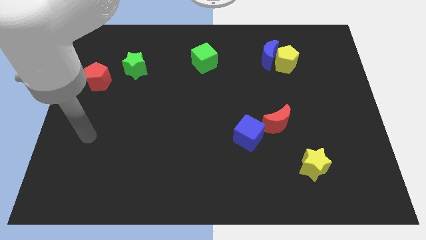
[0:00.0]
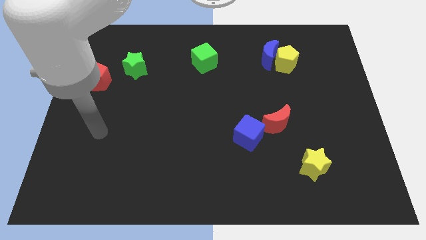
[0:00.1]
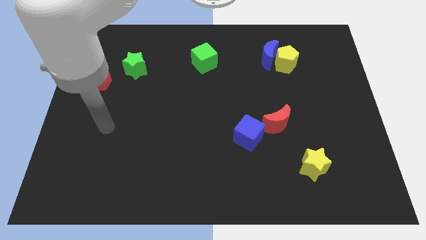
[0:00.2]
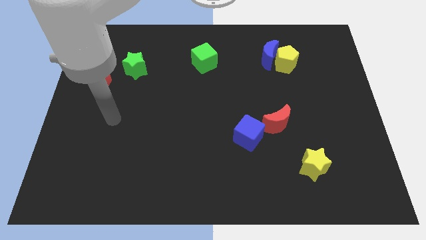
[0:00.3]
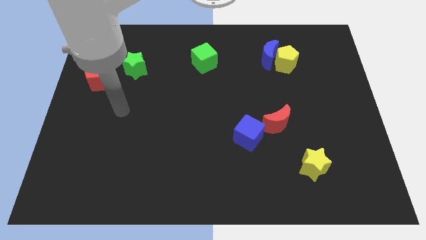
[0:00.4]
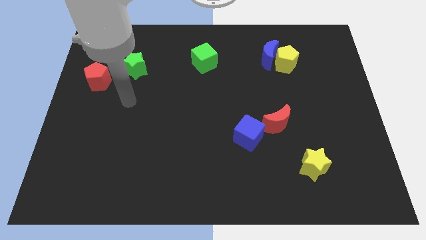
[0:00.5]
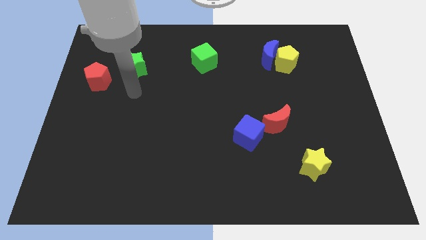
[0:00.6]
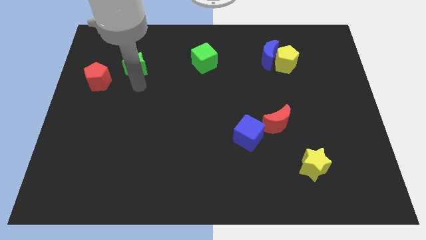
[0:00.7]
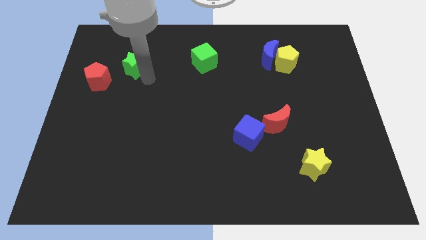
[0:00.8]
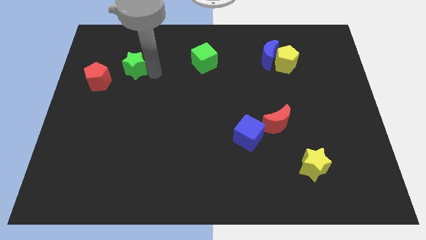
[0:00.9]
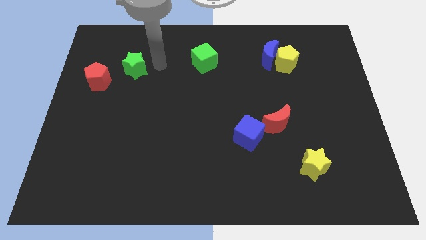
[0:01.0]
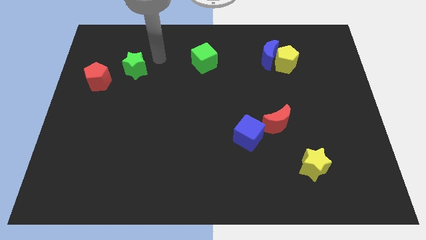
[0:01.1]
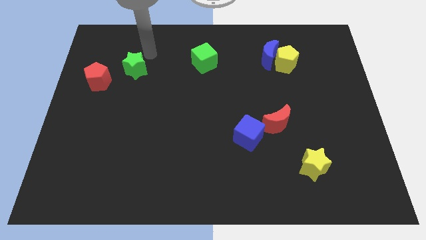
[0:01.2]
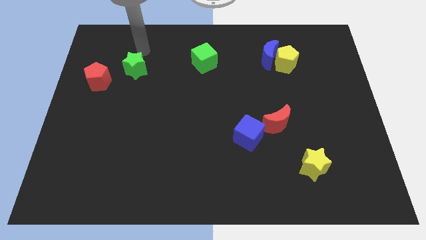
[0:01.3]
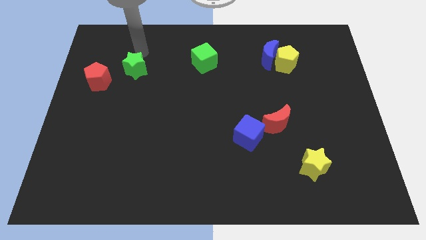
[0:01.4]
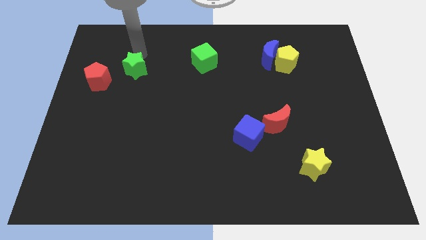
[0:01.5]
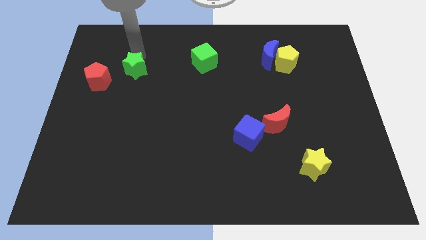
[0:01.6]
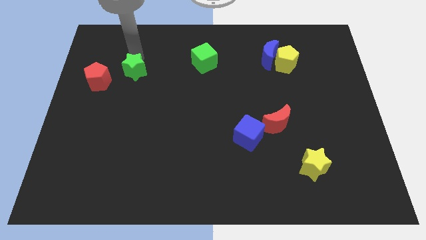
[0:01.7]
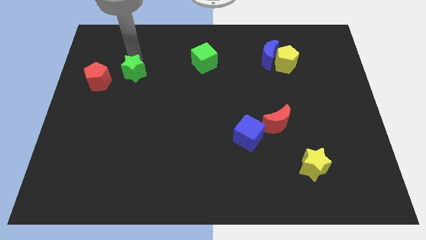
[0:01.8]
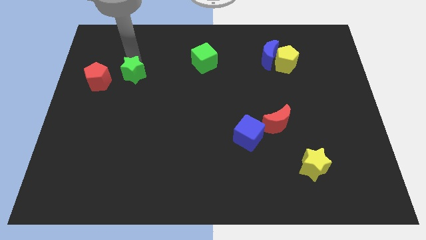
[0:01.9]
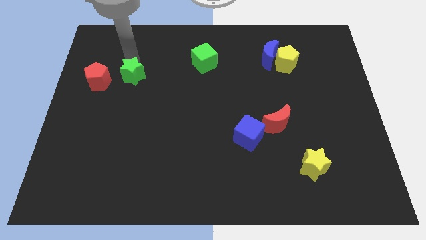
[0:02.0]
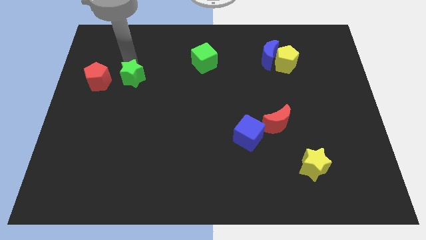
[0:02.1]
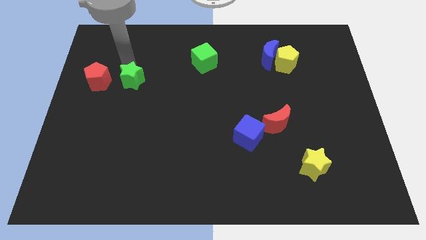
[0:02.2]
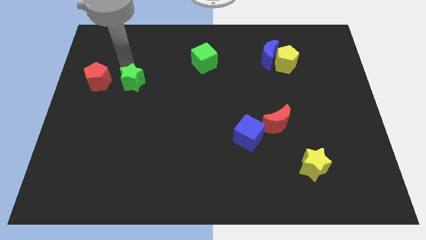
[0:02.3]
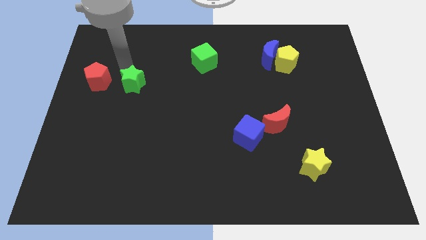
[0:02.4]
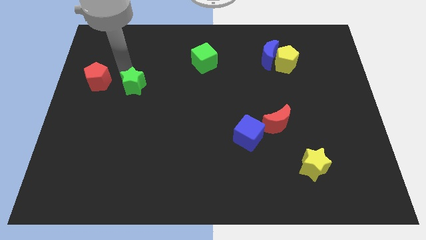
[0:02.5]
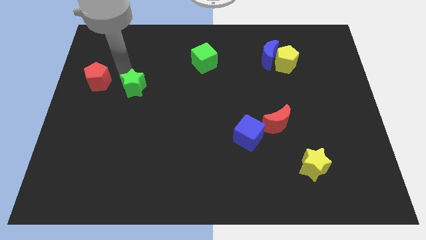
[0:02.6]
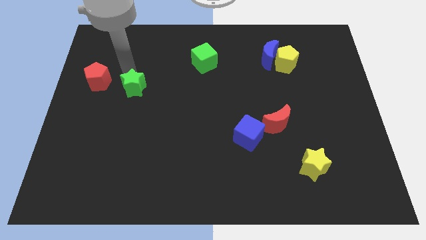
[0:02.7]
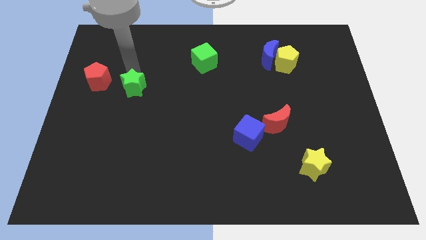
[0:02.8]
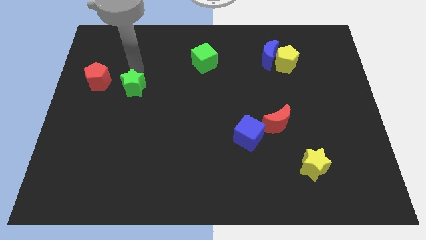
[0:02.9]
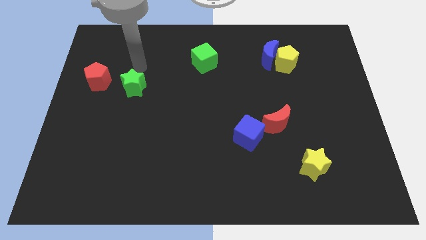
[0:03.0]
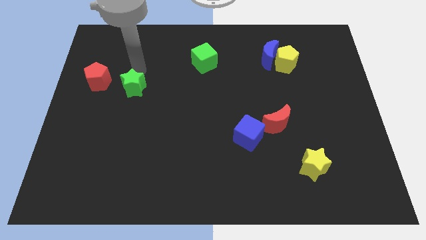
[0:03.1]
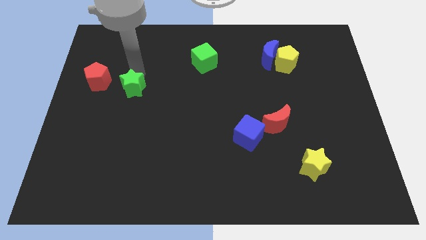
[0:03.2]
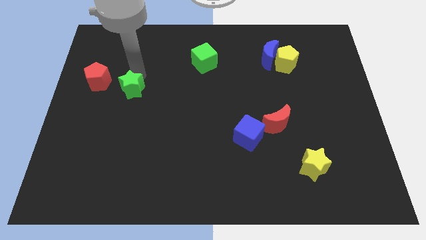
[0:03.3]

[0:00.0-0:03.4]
slightly slide the green star downwards

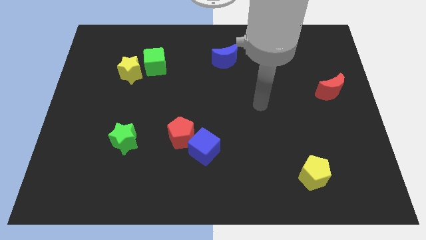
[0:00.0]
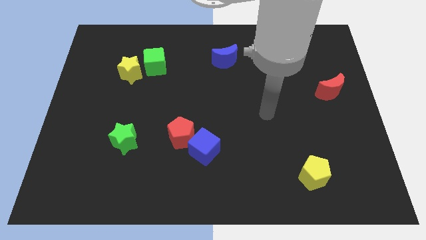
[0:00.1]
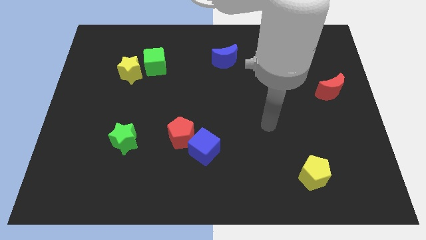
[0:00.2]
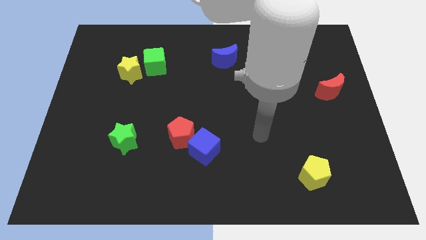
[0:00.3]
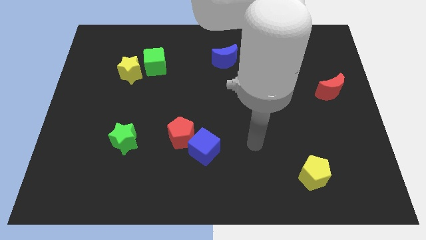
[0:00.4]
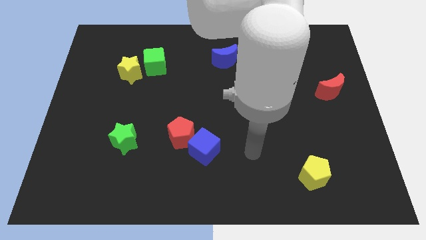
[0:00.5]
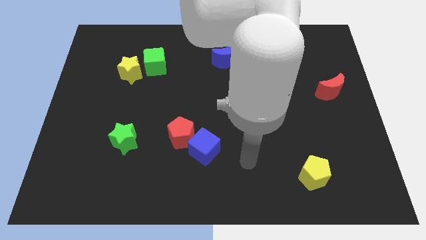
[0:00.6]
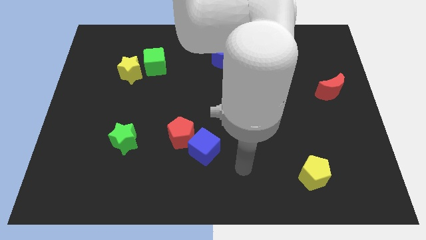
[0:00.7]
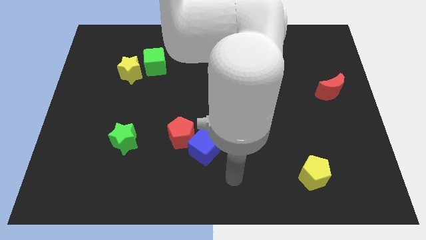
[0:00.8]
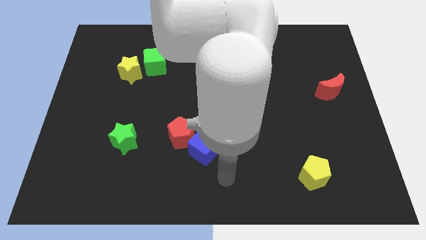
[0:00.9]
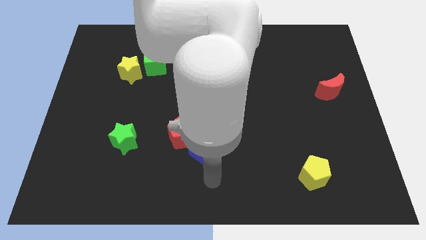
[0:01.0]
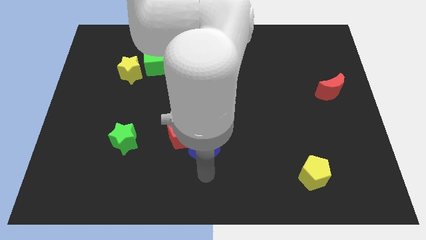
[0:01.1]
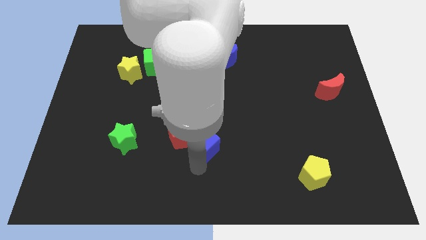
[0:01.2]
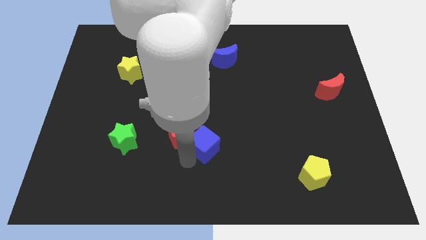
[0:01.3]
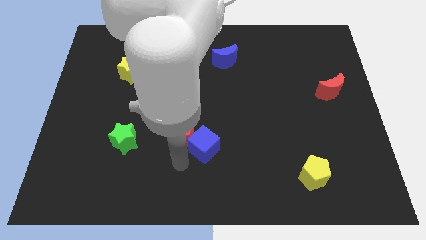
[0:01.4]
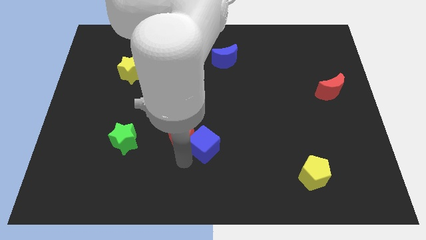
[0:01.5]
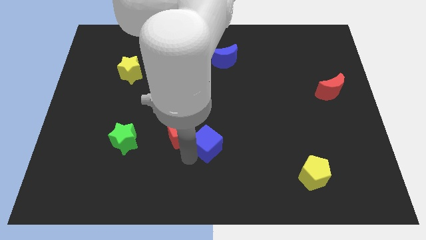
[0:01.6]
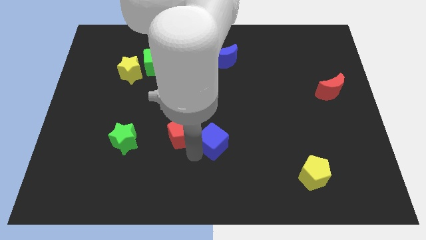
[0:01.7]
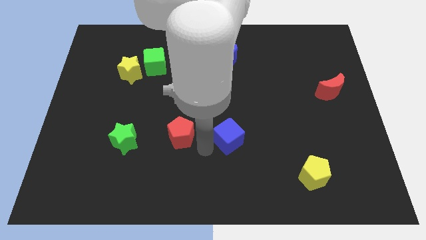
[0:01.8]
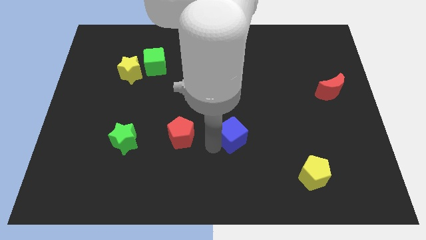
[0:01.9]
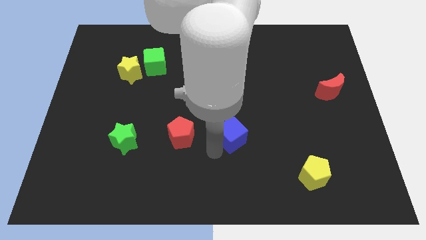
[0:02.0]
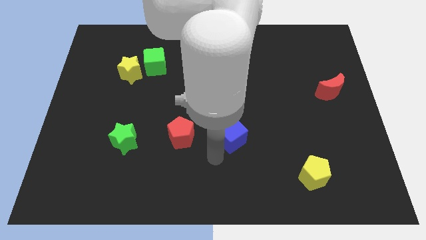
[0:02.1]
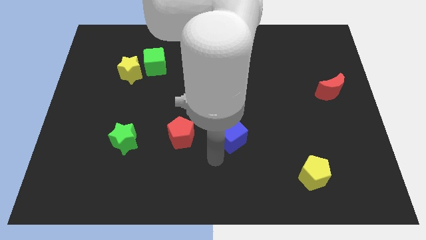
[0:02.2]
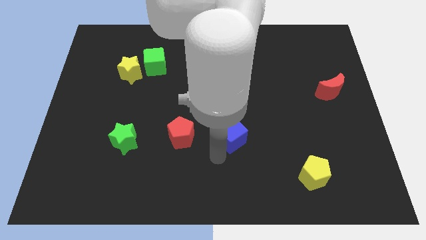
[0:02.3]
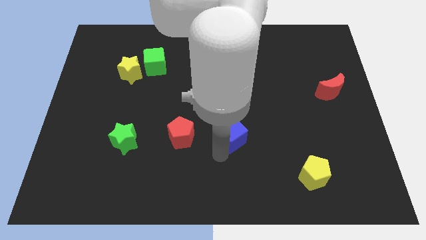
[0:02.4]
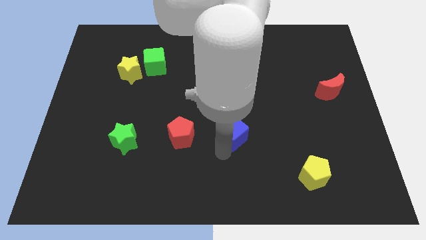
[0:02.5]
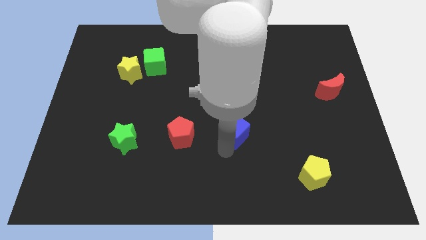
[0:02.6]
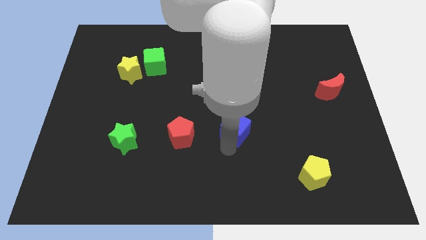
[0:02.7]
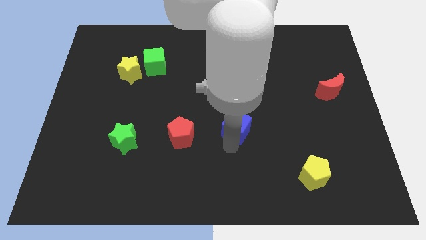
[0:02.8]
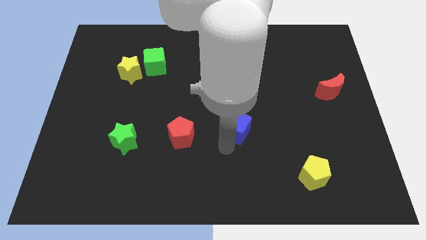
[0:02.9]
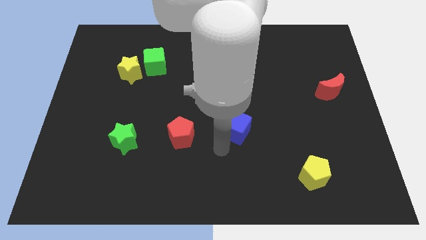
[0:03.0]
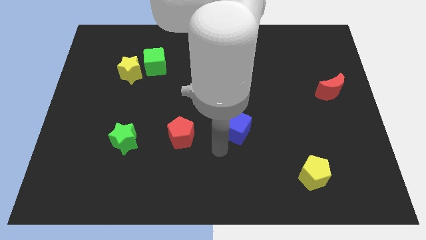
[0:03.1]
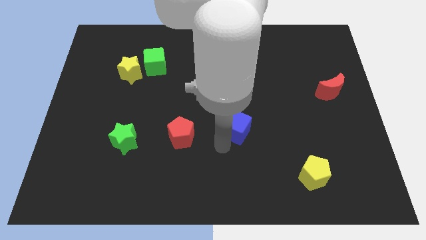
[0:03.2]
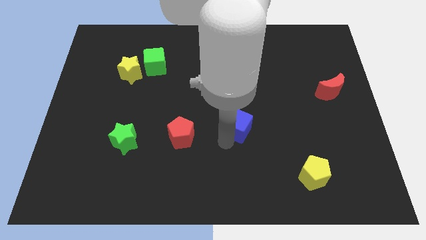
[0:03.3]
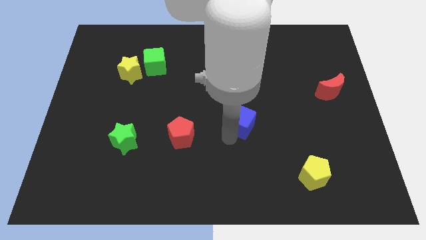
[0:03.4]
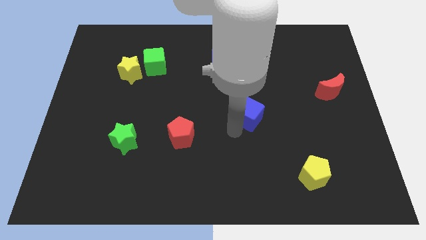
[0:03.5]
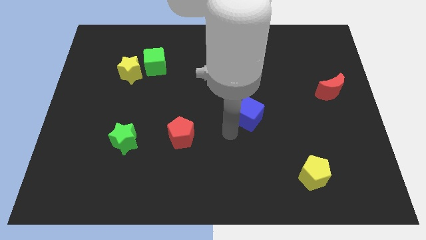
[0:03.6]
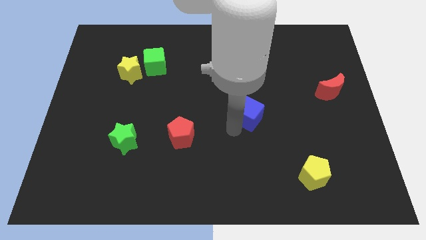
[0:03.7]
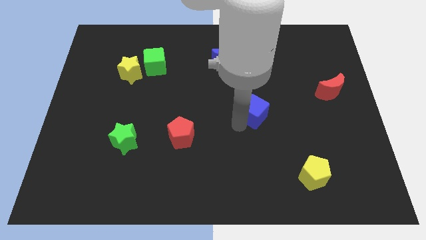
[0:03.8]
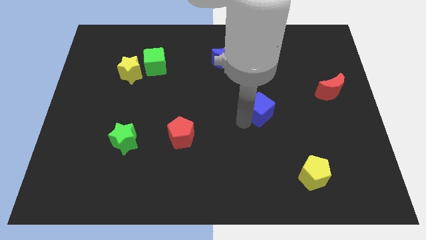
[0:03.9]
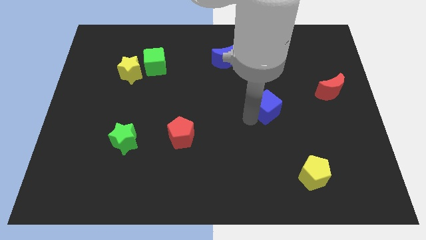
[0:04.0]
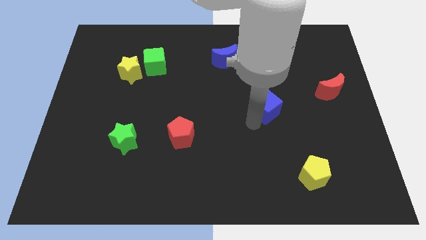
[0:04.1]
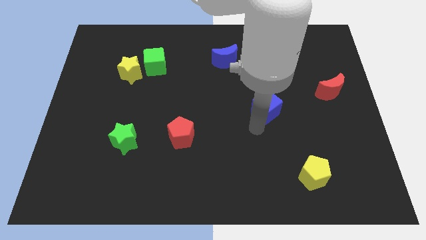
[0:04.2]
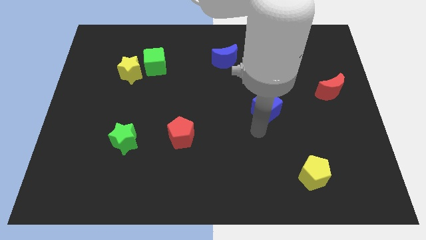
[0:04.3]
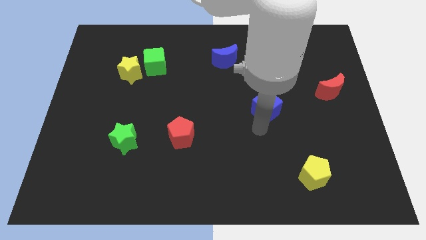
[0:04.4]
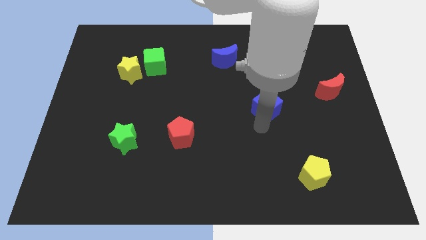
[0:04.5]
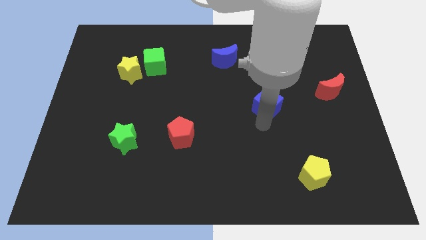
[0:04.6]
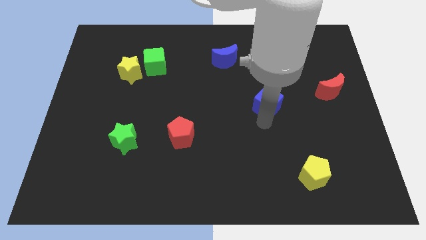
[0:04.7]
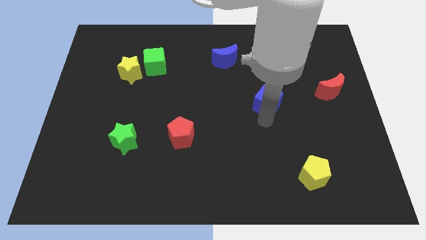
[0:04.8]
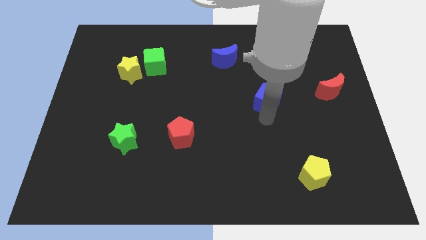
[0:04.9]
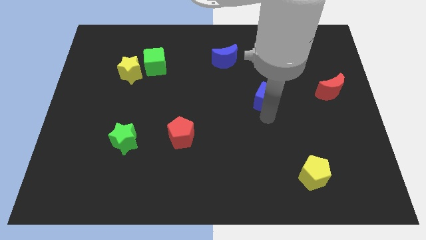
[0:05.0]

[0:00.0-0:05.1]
slide the blue cube diagonally up and to the right
